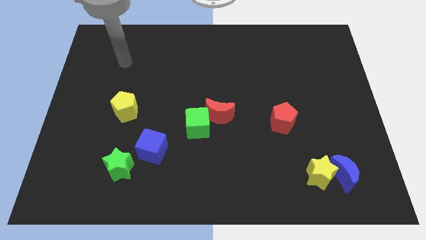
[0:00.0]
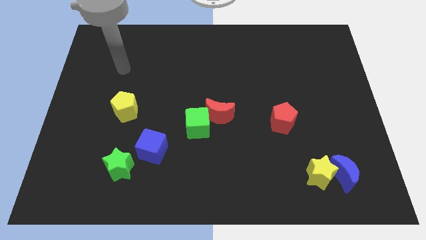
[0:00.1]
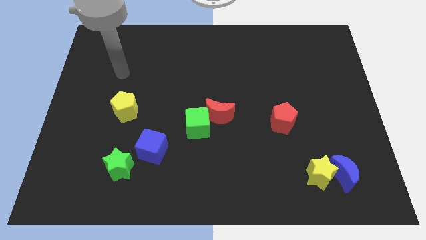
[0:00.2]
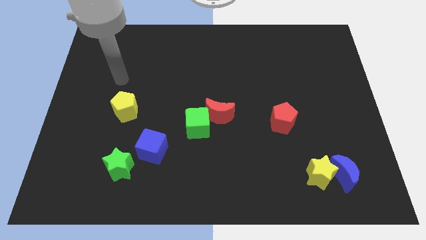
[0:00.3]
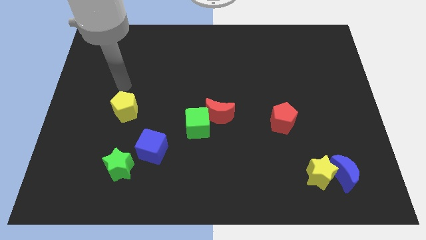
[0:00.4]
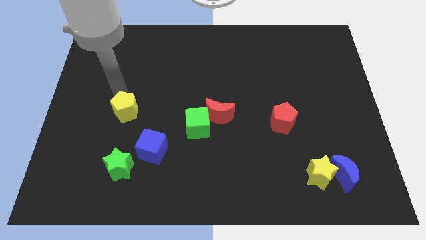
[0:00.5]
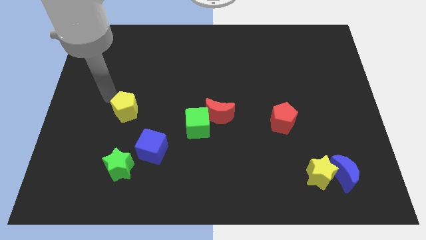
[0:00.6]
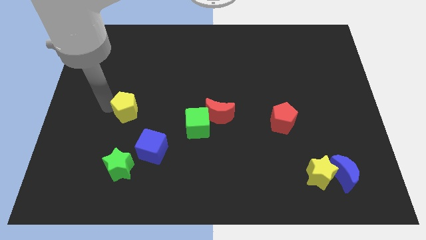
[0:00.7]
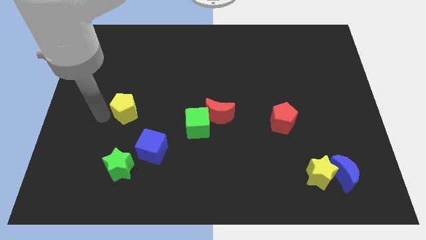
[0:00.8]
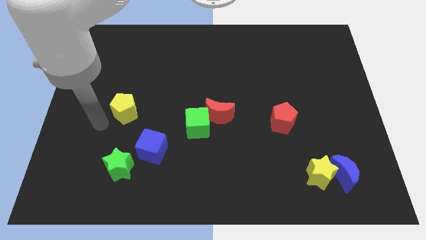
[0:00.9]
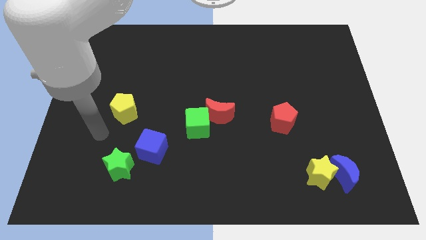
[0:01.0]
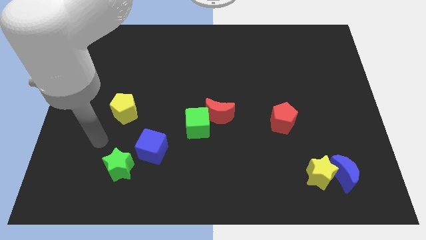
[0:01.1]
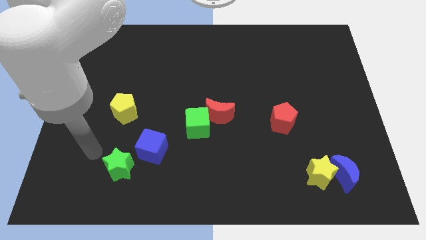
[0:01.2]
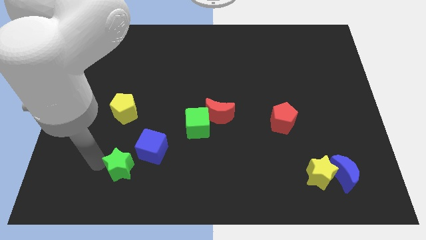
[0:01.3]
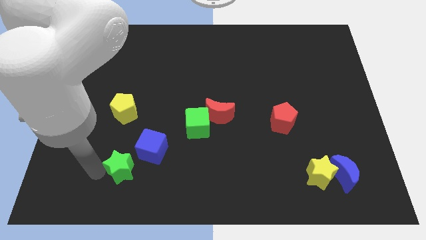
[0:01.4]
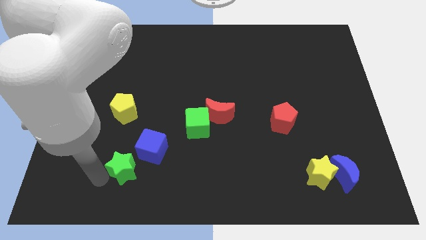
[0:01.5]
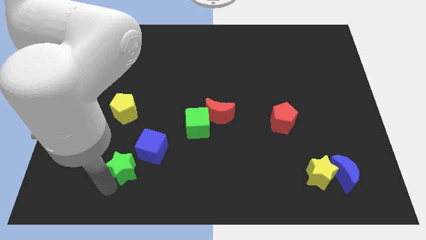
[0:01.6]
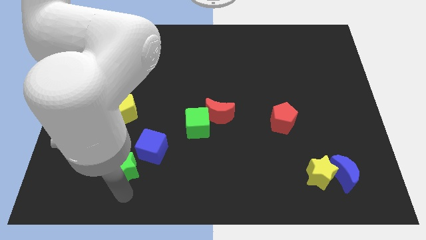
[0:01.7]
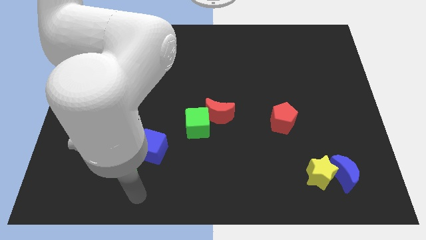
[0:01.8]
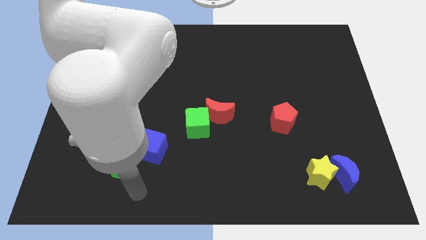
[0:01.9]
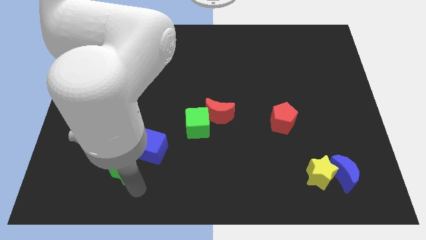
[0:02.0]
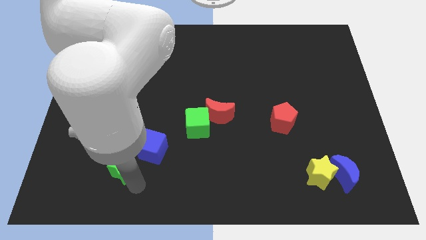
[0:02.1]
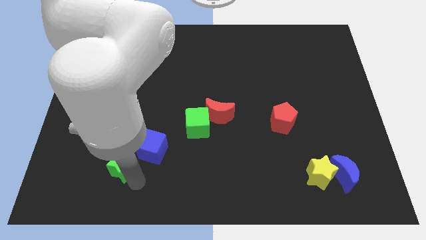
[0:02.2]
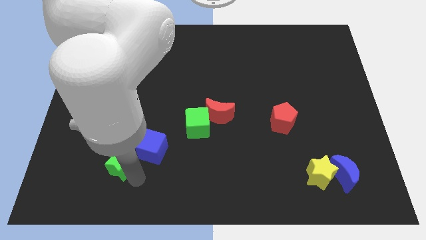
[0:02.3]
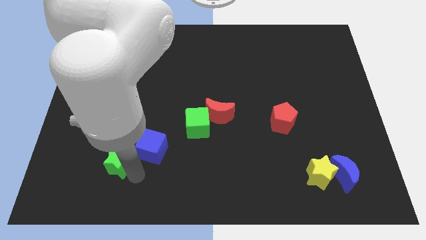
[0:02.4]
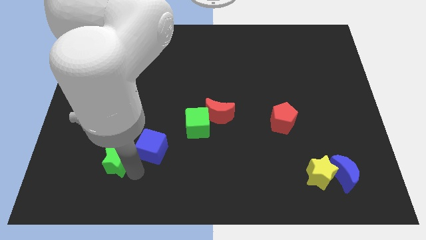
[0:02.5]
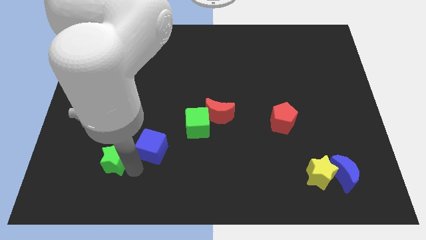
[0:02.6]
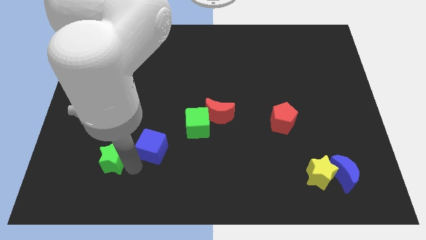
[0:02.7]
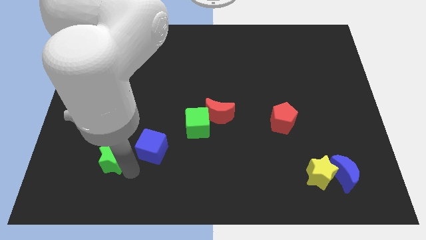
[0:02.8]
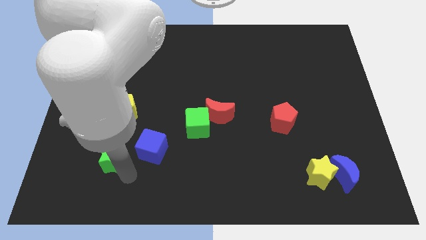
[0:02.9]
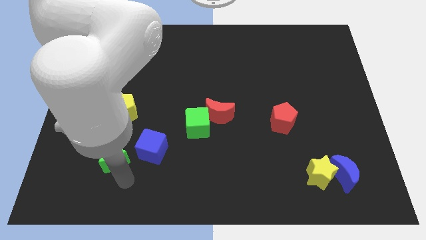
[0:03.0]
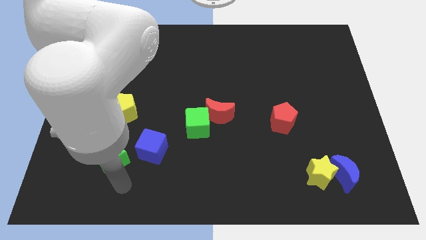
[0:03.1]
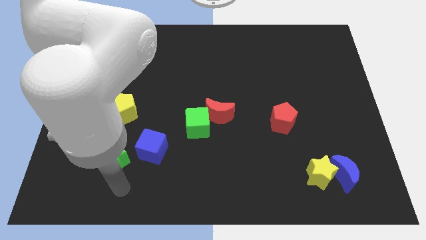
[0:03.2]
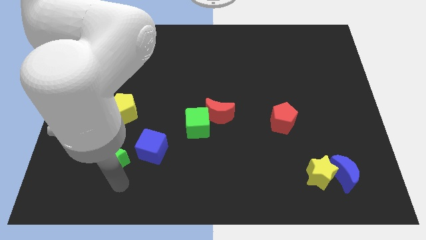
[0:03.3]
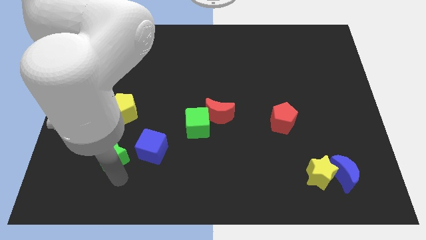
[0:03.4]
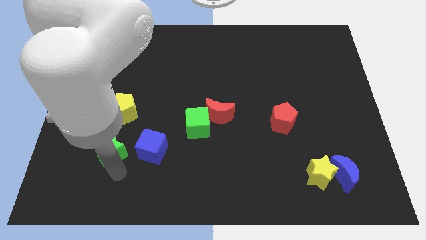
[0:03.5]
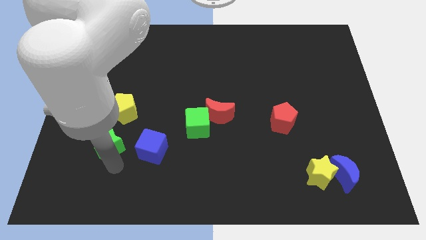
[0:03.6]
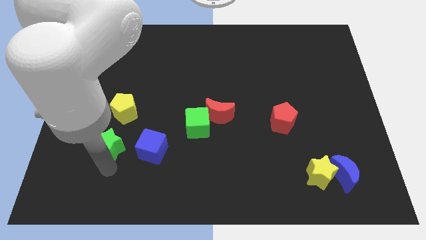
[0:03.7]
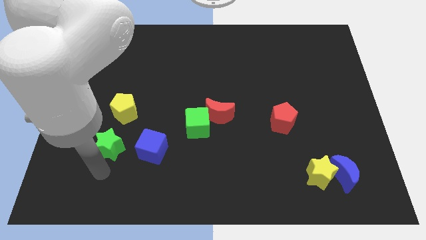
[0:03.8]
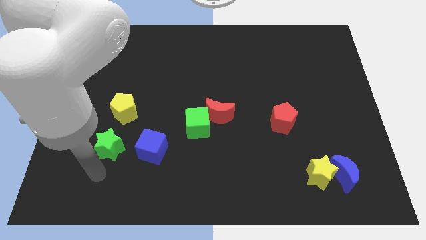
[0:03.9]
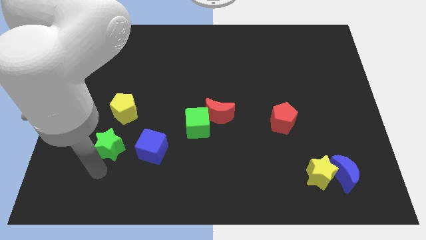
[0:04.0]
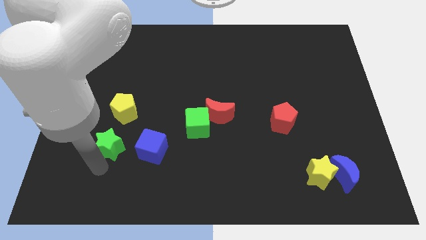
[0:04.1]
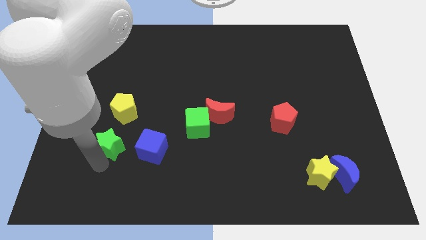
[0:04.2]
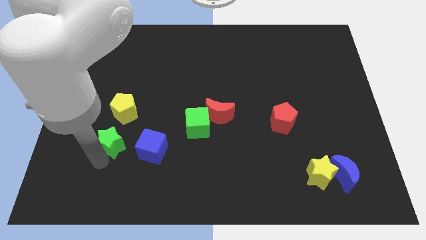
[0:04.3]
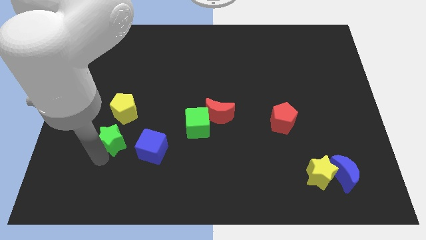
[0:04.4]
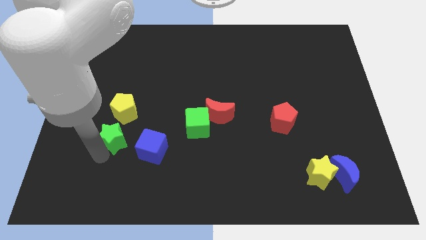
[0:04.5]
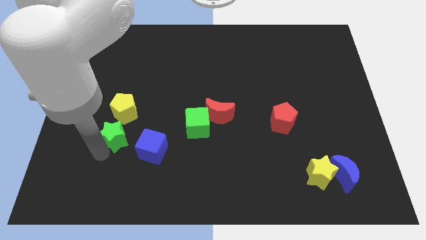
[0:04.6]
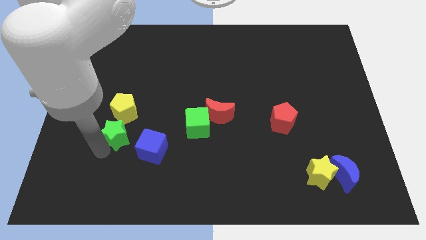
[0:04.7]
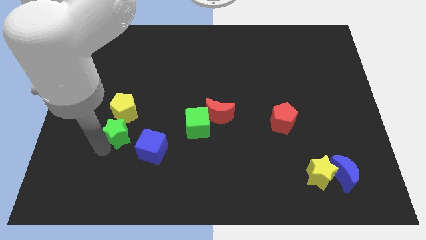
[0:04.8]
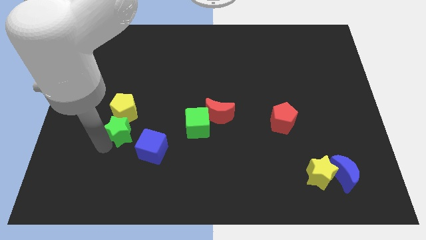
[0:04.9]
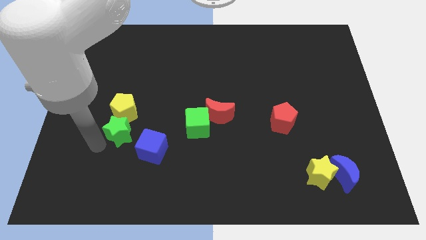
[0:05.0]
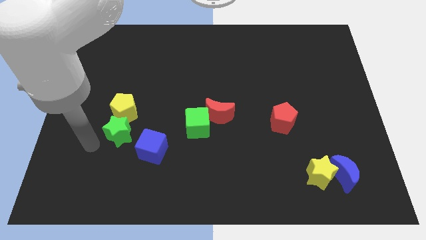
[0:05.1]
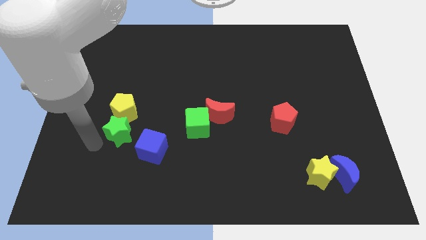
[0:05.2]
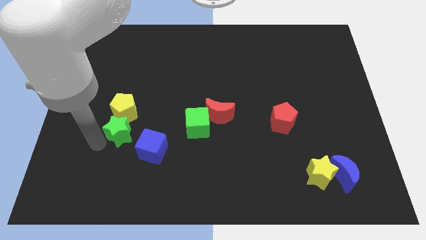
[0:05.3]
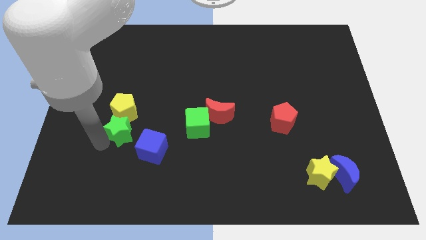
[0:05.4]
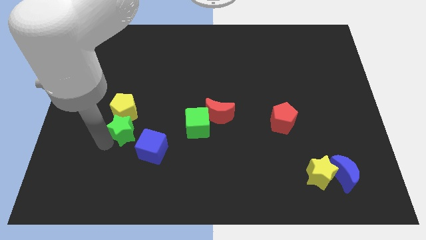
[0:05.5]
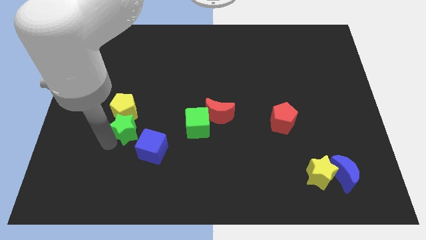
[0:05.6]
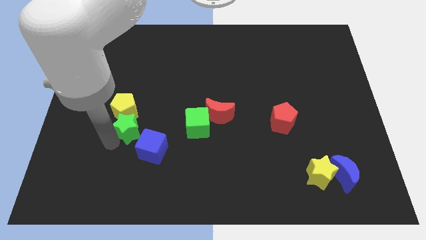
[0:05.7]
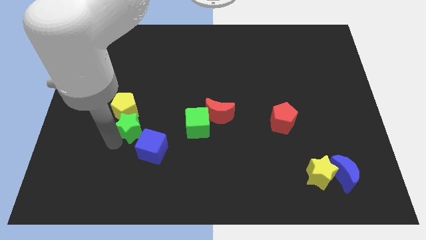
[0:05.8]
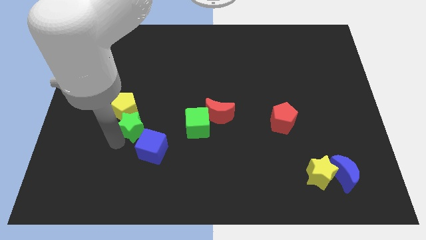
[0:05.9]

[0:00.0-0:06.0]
put the green star to the top side of the blue cube

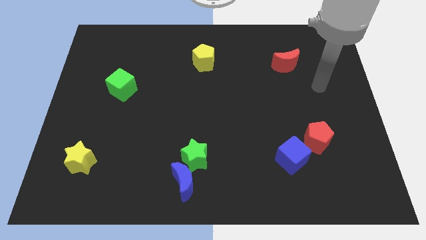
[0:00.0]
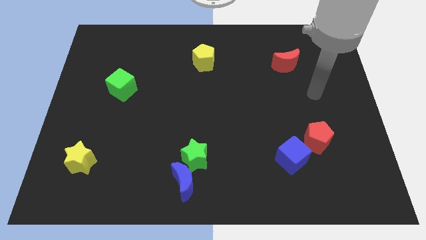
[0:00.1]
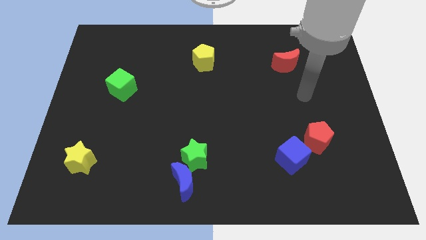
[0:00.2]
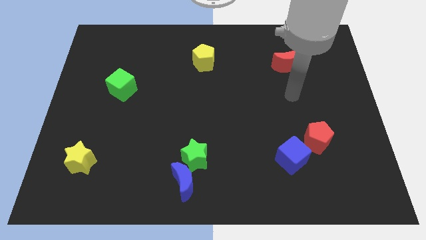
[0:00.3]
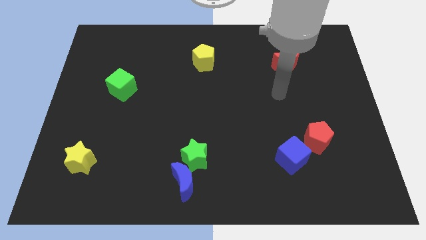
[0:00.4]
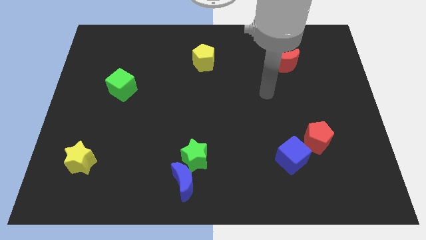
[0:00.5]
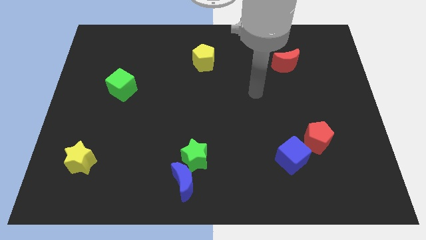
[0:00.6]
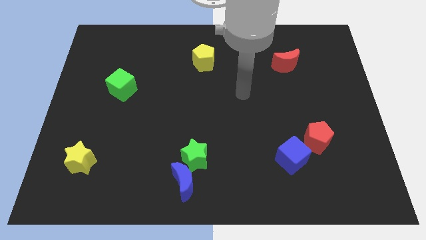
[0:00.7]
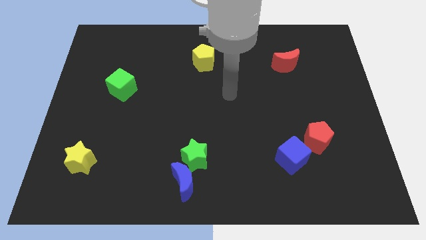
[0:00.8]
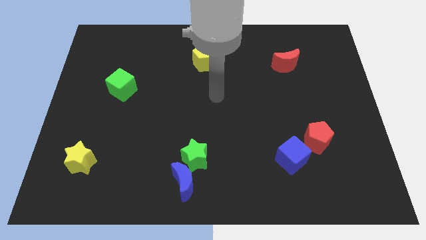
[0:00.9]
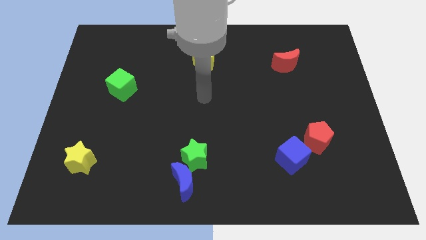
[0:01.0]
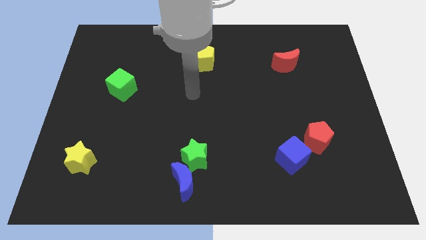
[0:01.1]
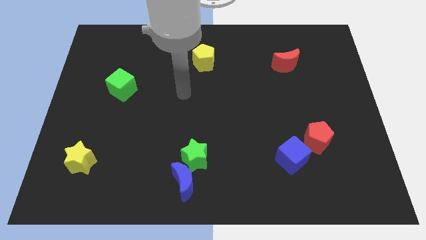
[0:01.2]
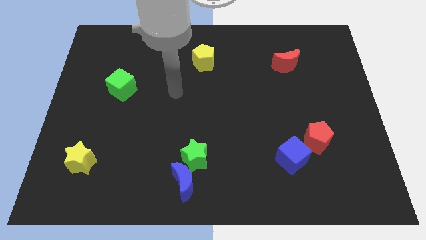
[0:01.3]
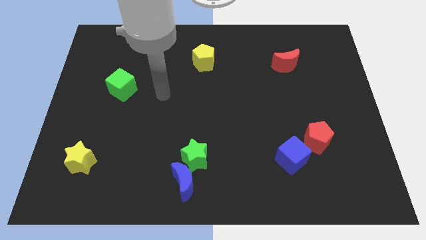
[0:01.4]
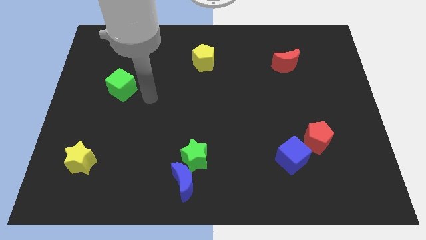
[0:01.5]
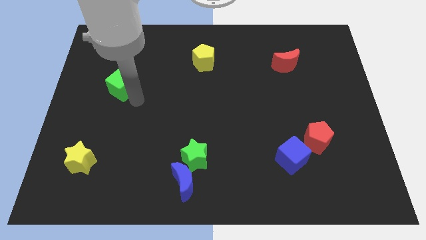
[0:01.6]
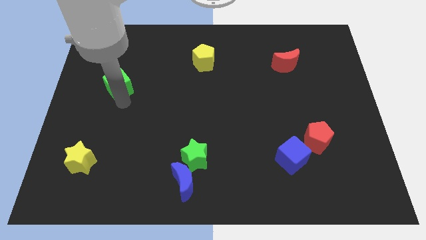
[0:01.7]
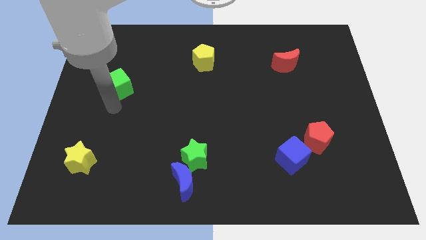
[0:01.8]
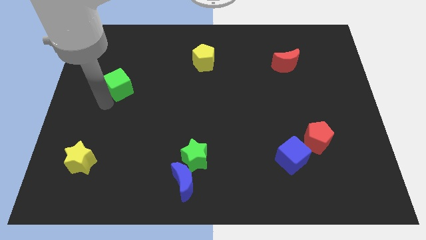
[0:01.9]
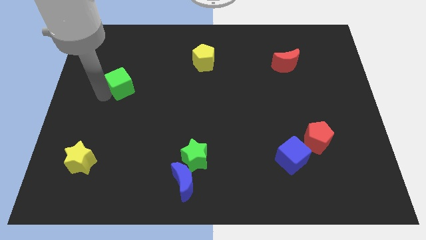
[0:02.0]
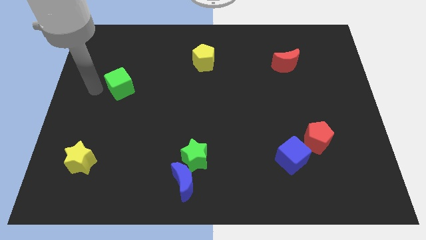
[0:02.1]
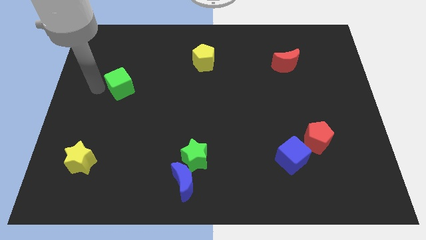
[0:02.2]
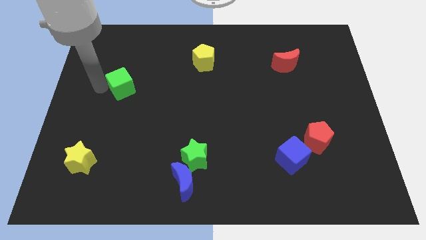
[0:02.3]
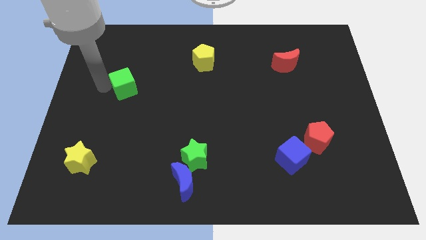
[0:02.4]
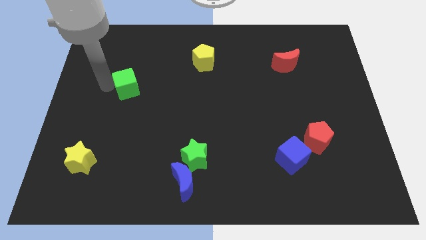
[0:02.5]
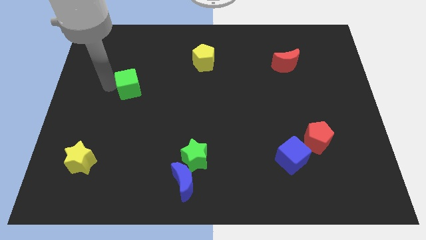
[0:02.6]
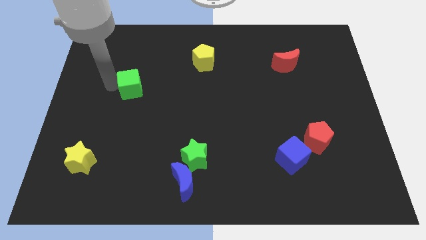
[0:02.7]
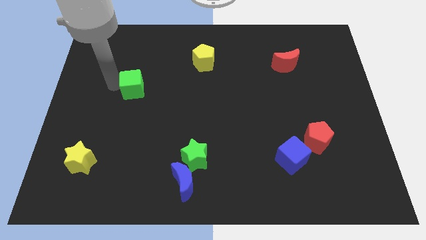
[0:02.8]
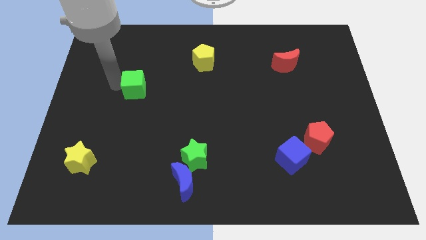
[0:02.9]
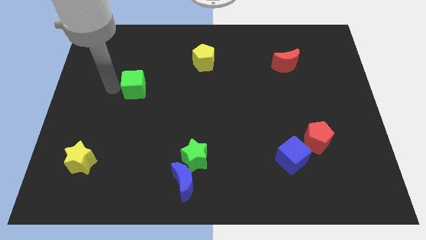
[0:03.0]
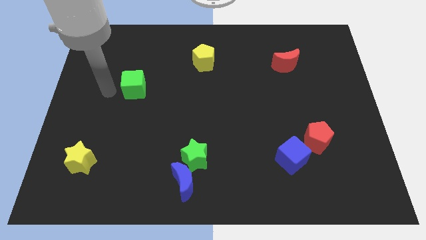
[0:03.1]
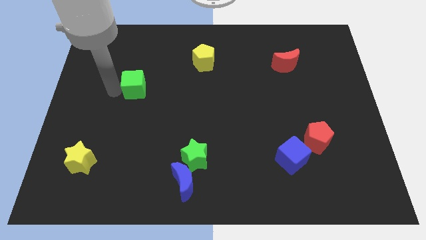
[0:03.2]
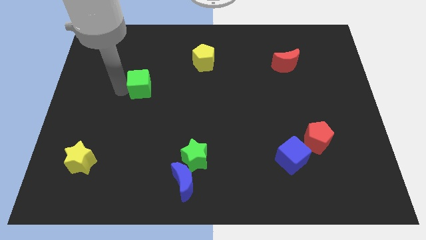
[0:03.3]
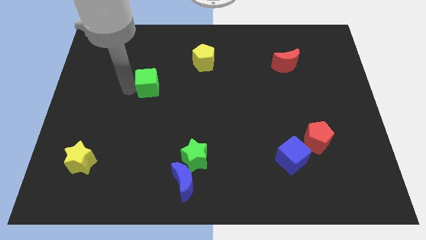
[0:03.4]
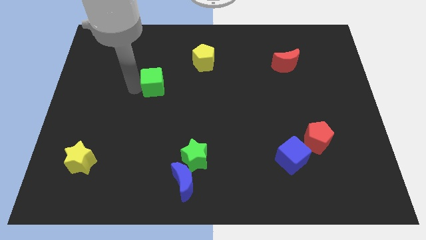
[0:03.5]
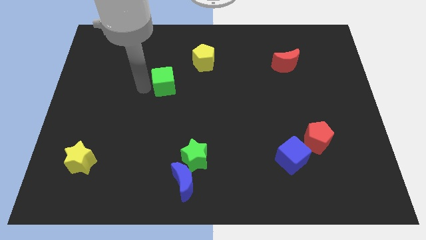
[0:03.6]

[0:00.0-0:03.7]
move the green cube to the bottom left of the yellow pentagon
